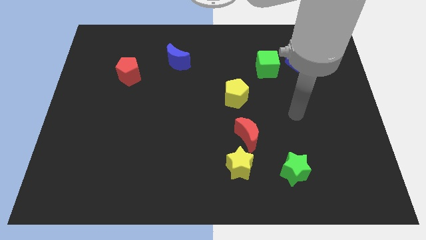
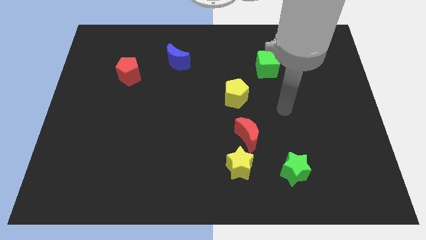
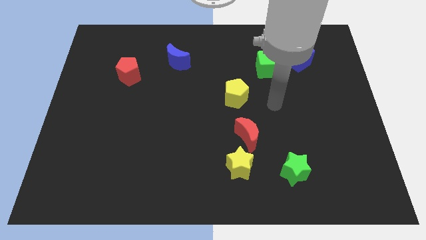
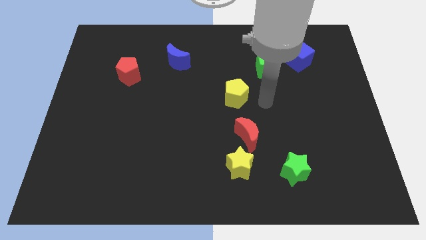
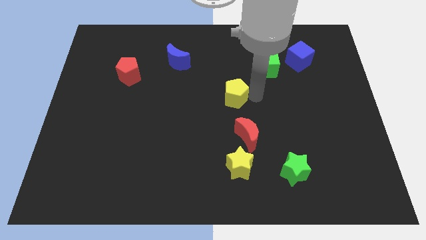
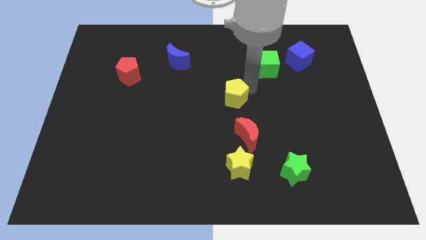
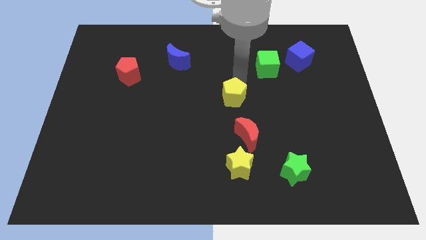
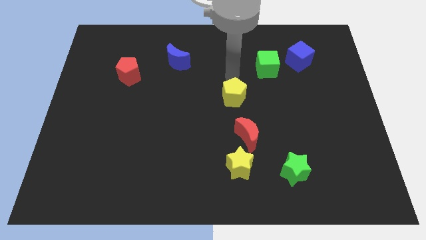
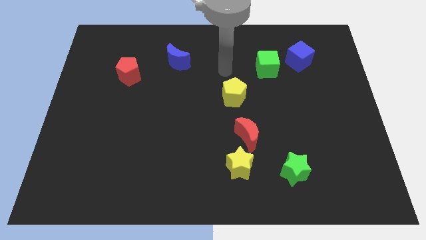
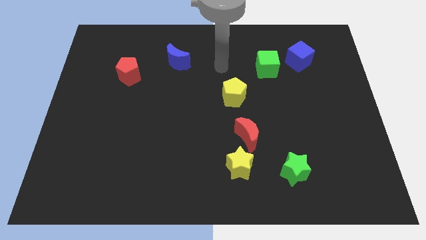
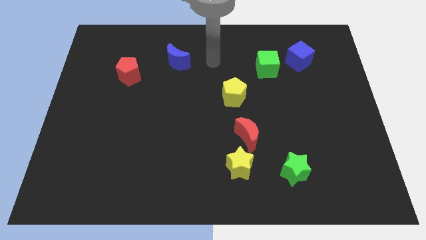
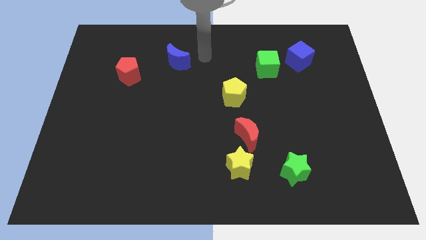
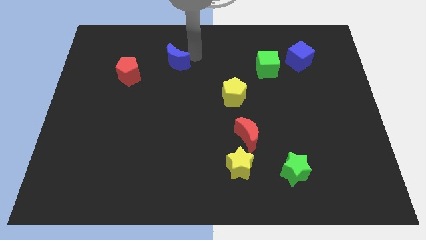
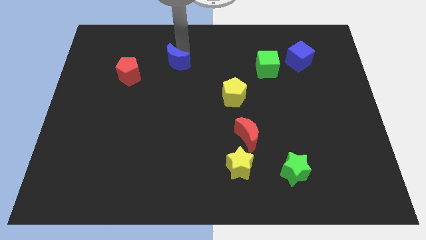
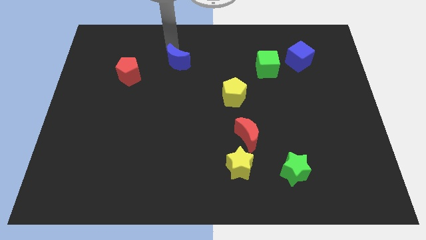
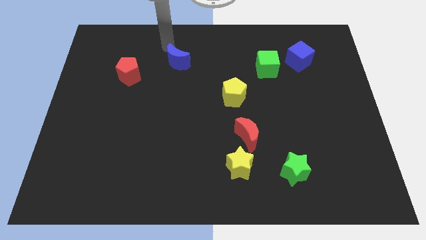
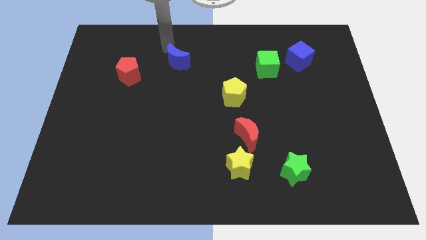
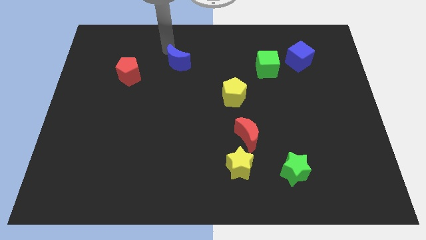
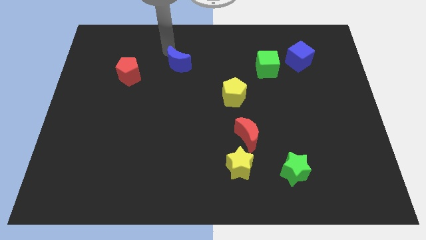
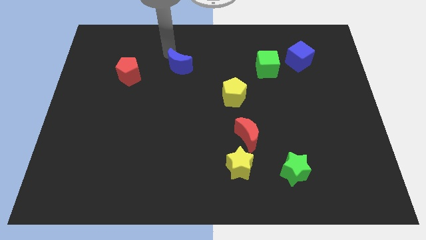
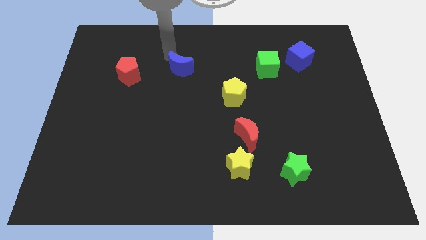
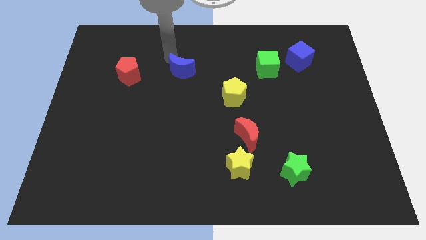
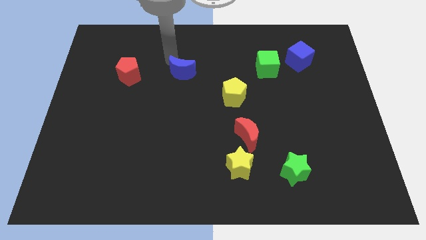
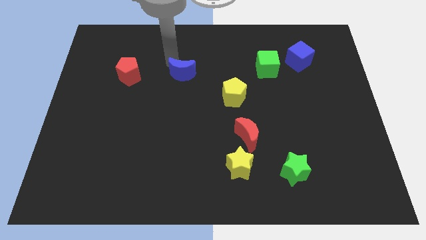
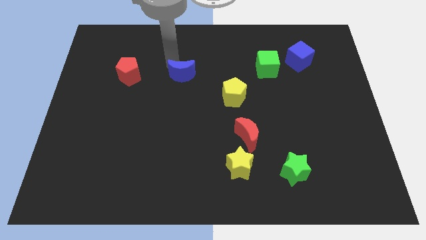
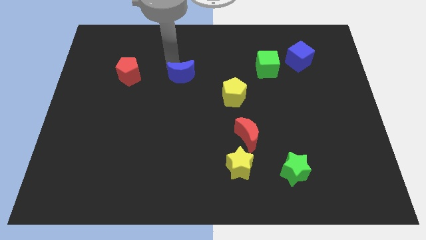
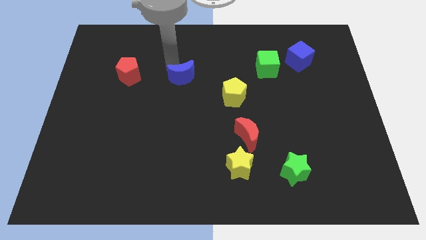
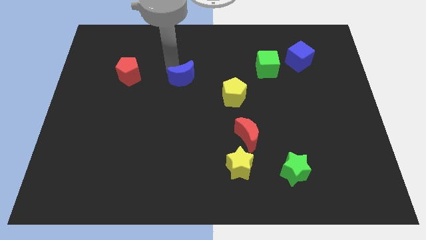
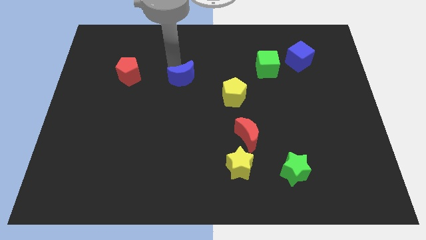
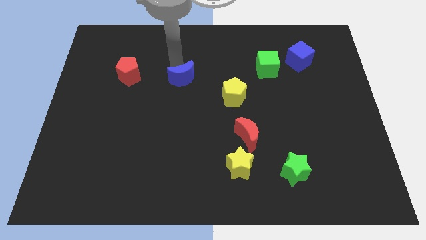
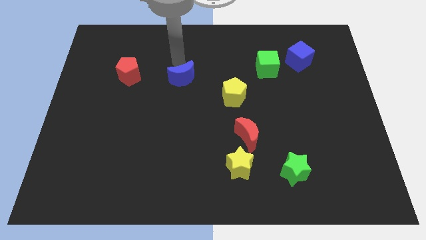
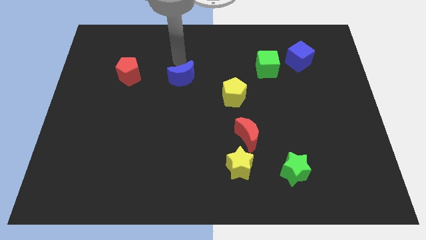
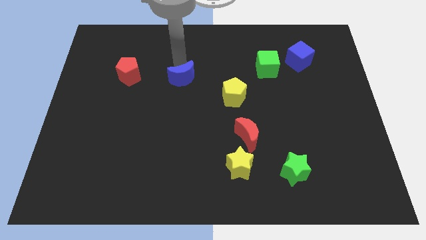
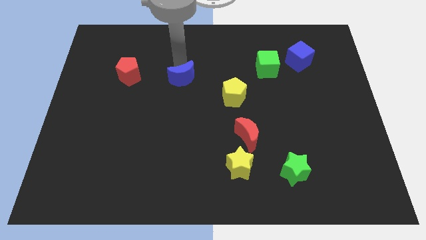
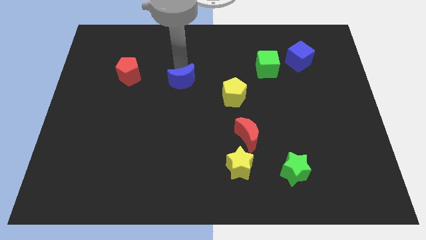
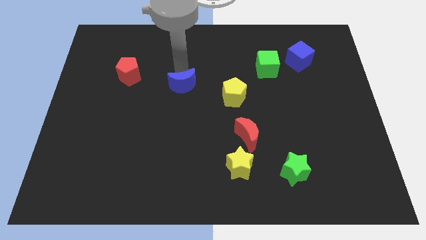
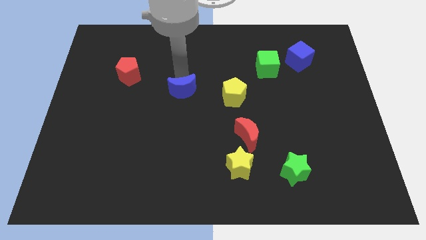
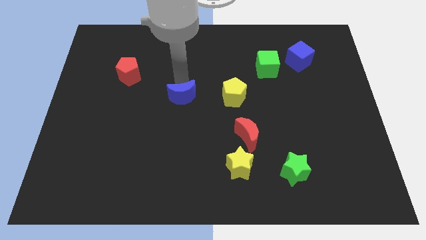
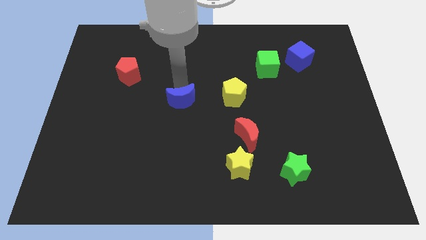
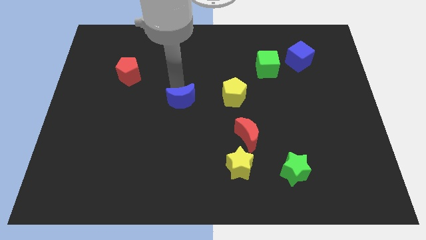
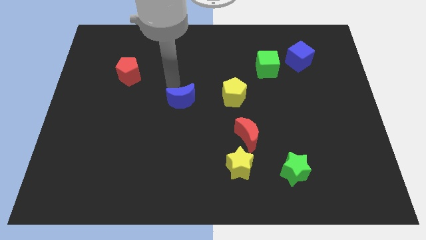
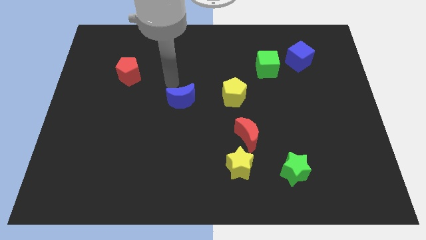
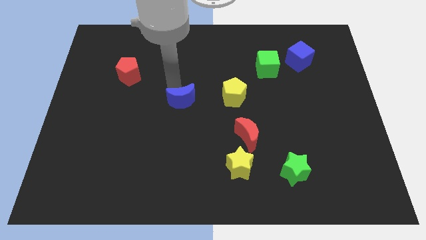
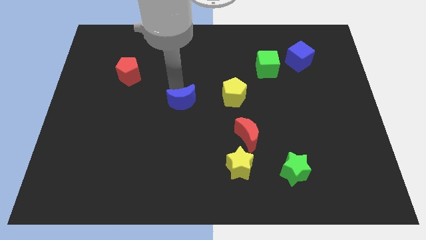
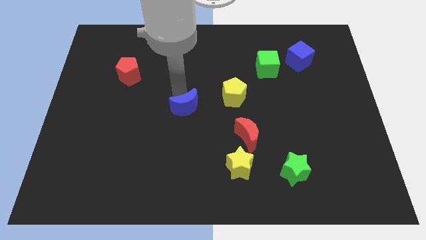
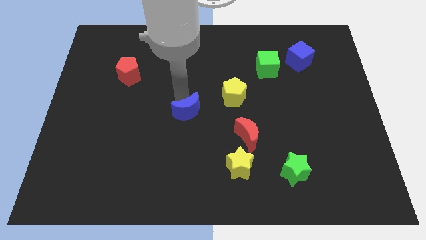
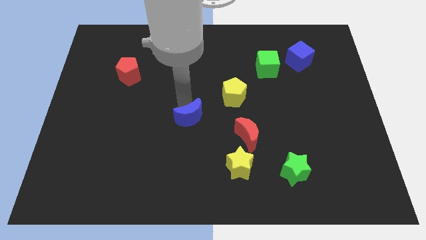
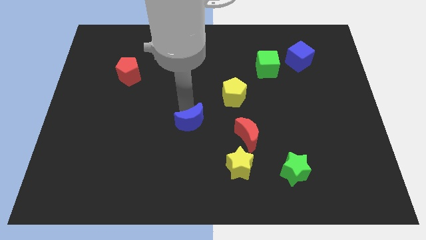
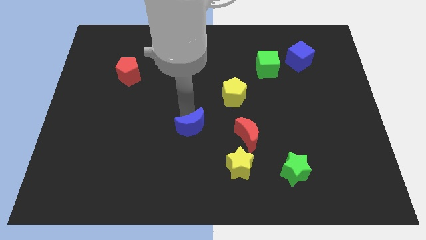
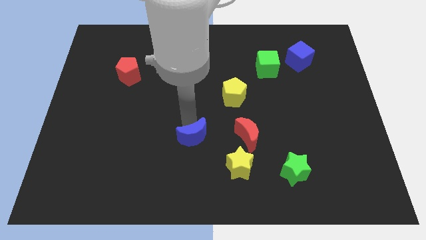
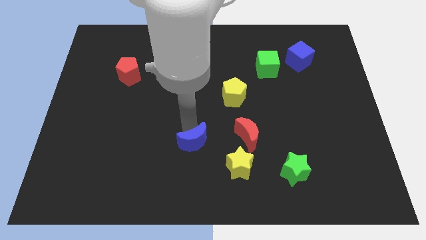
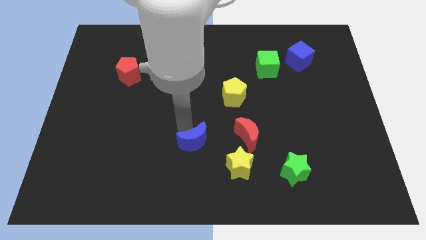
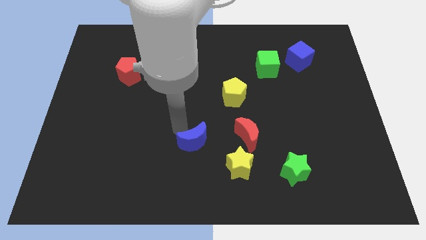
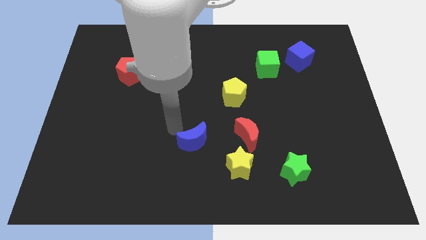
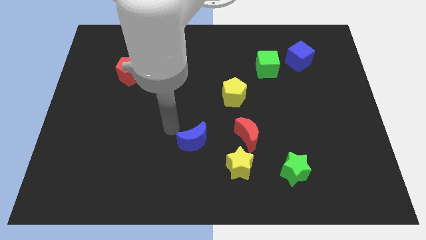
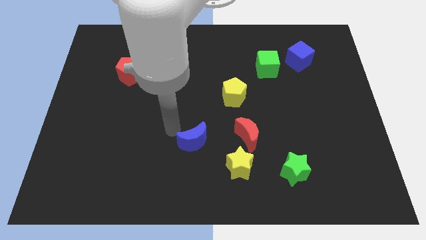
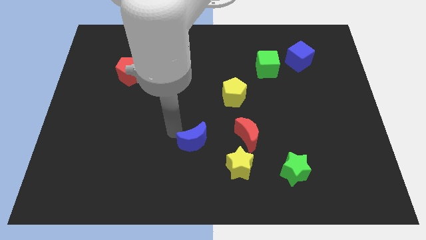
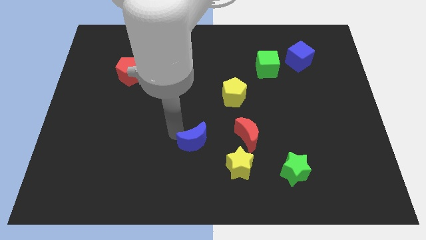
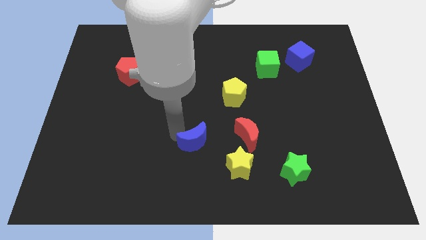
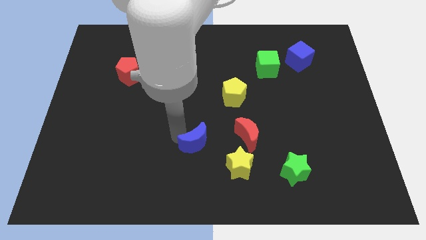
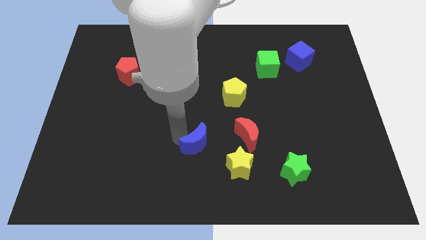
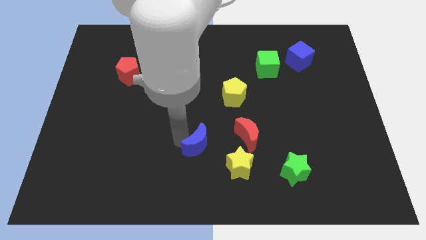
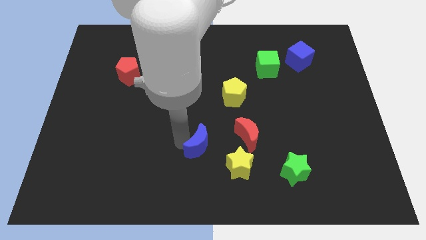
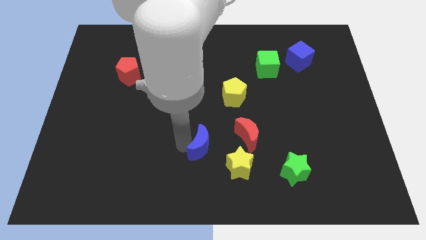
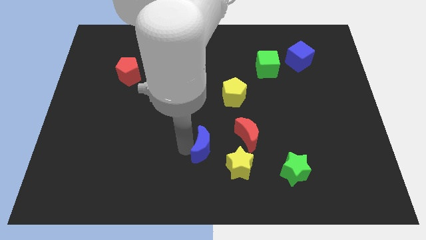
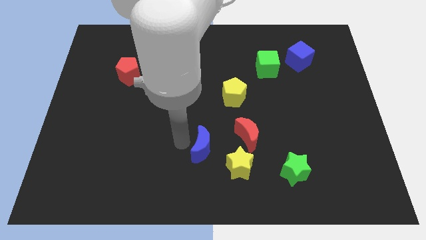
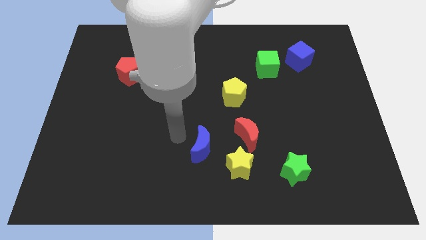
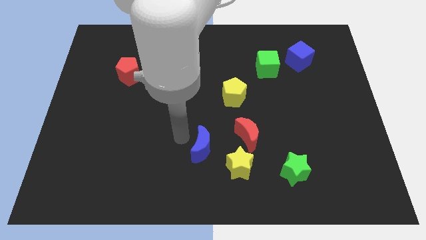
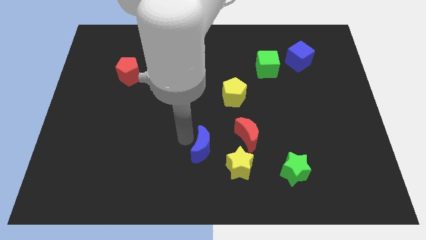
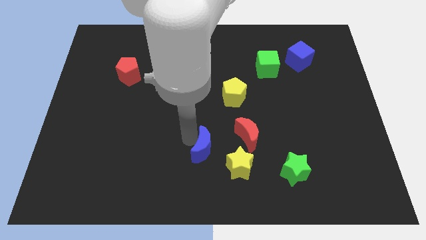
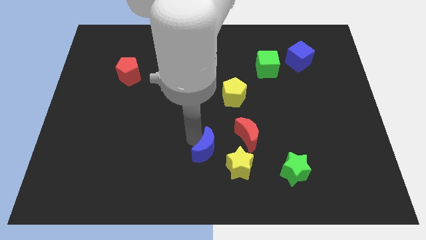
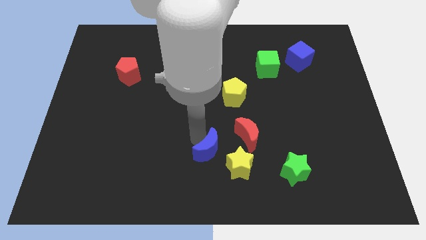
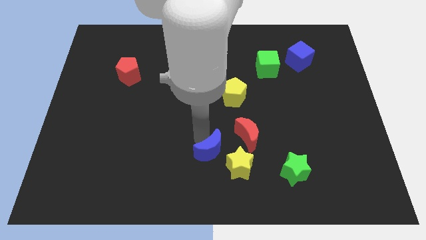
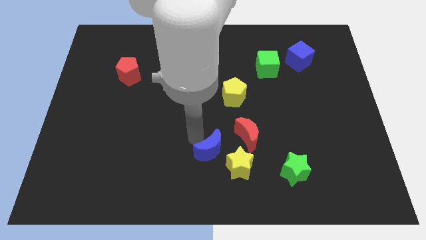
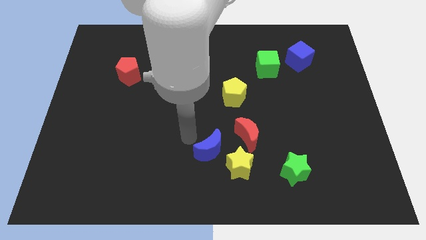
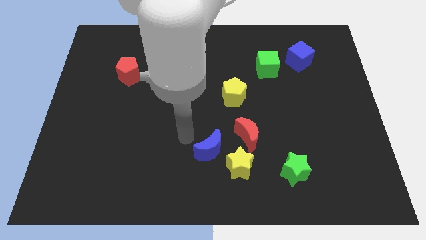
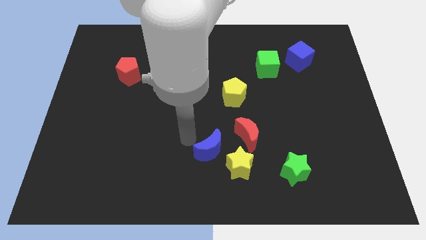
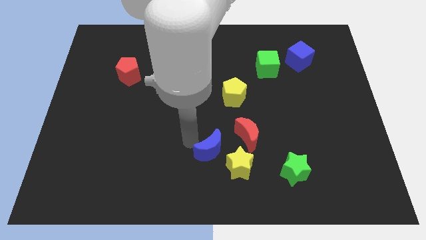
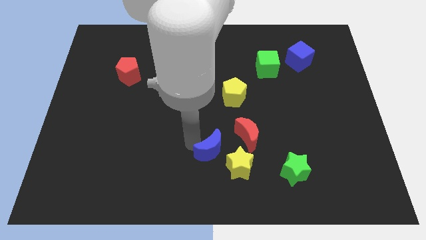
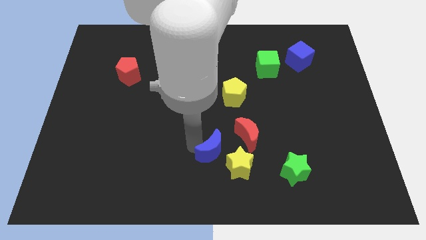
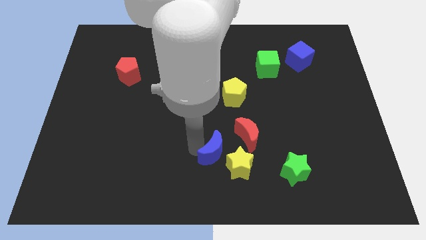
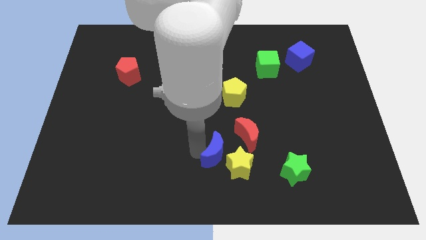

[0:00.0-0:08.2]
move the blue moon to the yellow star
